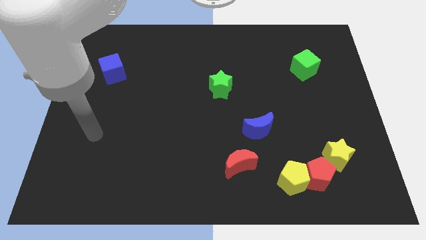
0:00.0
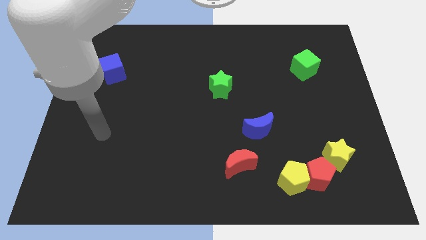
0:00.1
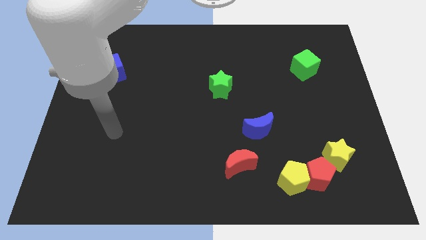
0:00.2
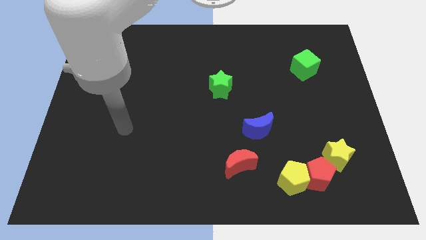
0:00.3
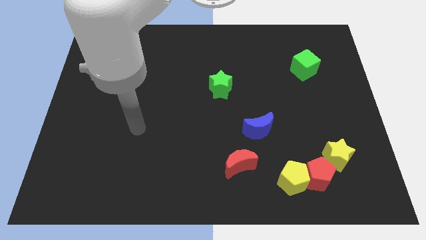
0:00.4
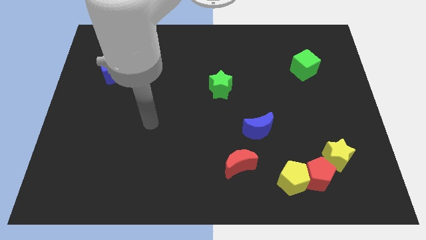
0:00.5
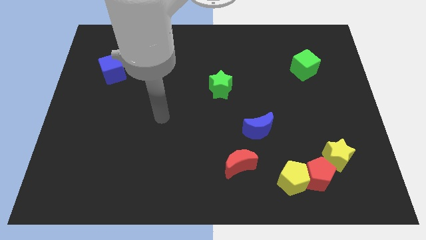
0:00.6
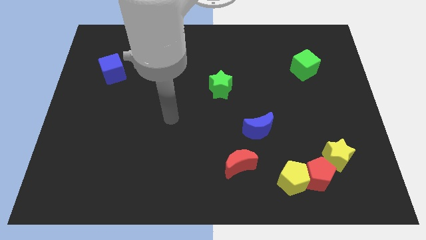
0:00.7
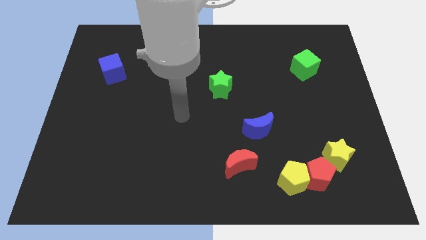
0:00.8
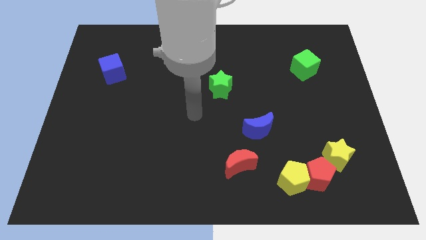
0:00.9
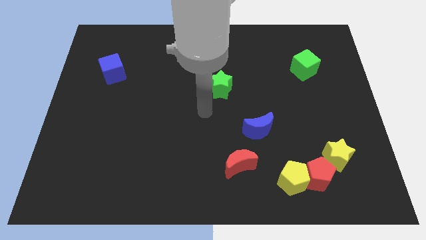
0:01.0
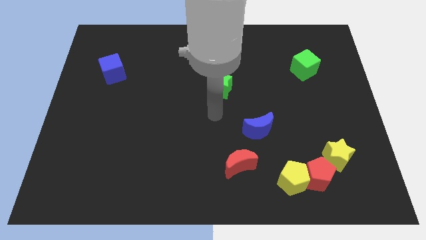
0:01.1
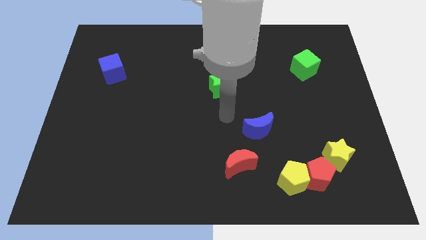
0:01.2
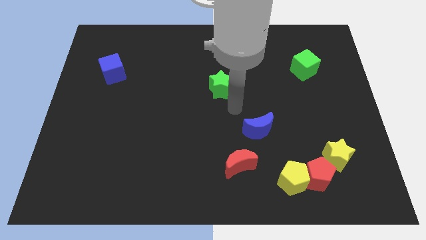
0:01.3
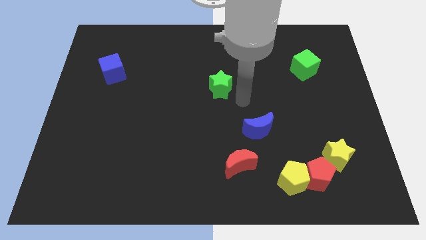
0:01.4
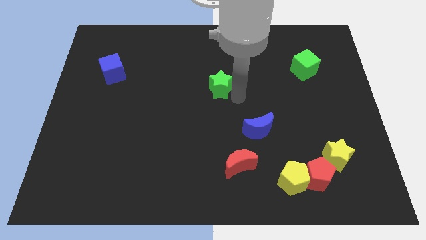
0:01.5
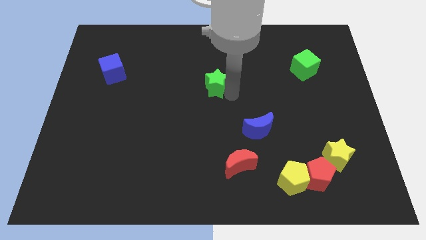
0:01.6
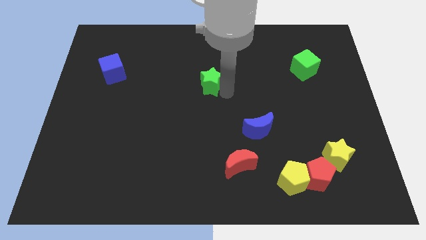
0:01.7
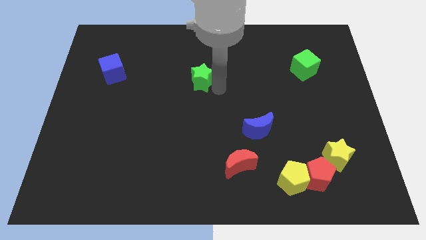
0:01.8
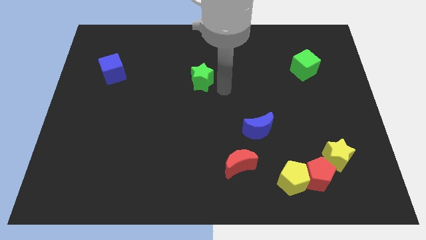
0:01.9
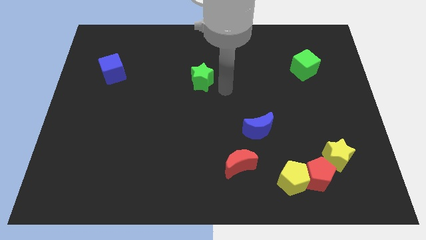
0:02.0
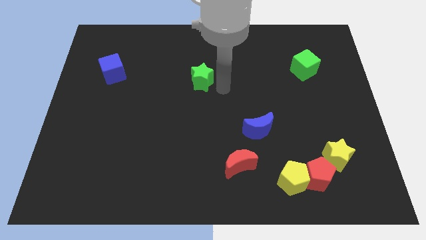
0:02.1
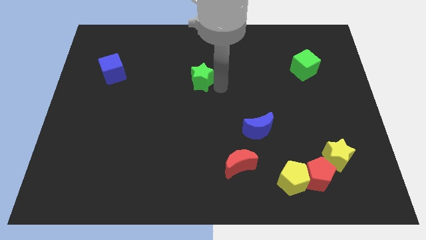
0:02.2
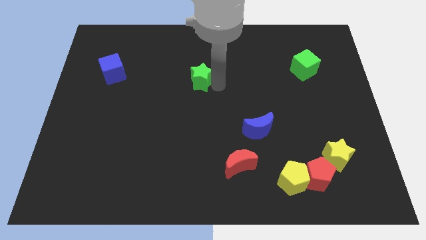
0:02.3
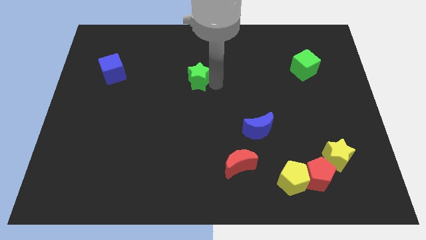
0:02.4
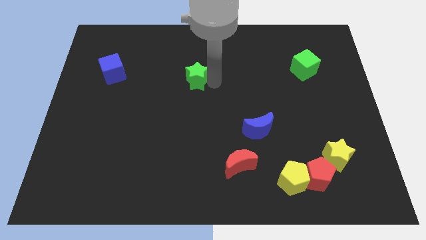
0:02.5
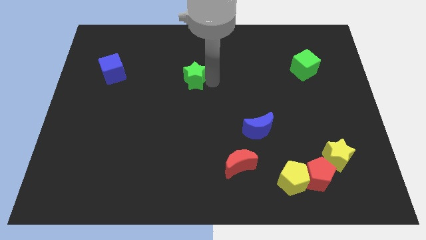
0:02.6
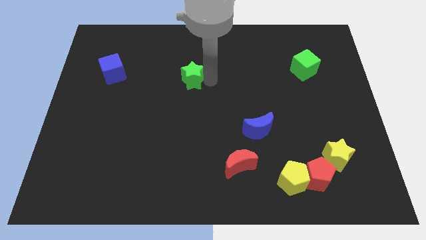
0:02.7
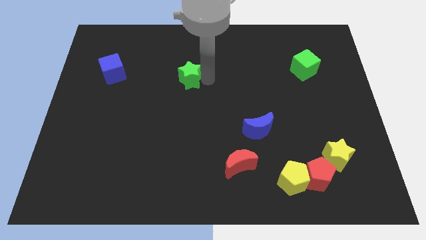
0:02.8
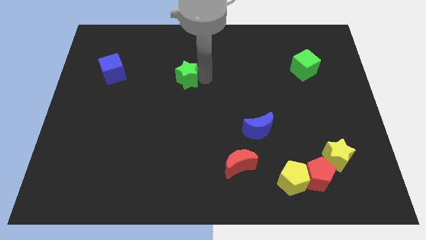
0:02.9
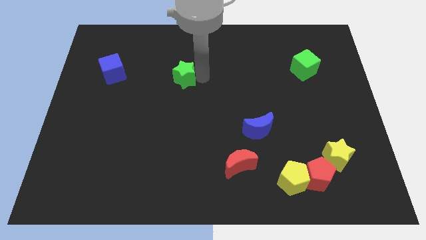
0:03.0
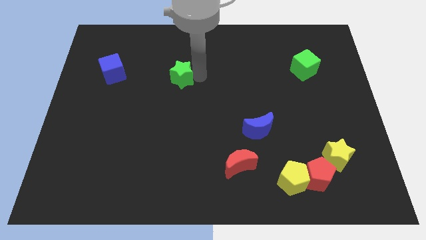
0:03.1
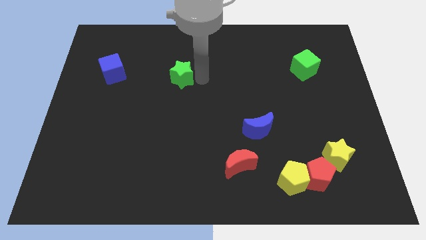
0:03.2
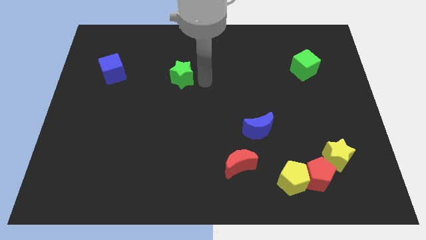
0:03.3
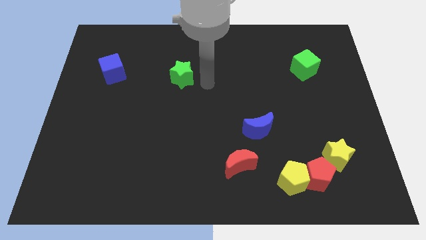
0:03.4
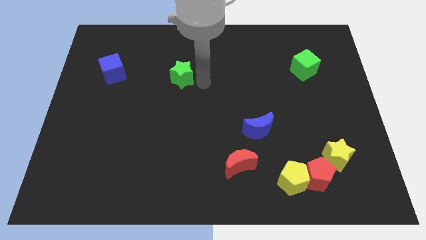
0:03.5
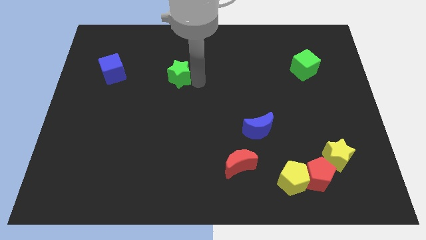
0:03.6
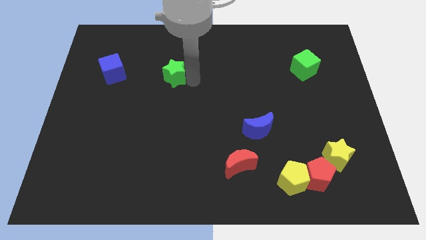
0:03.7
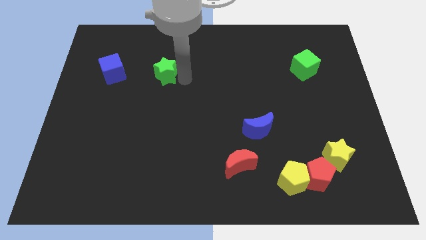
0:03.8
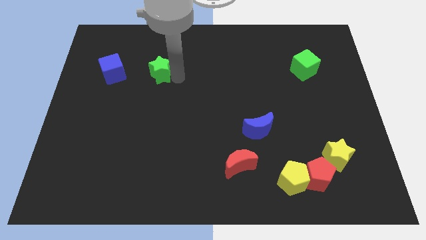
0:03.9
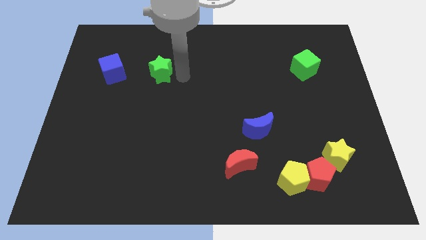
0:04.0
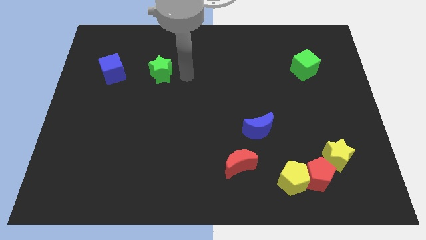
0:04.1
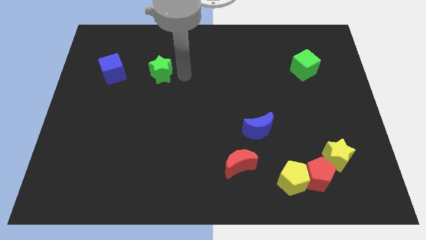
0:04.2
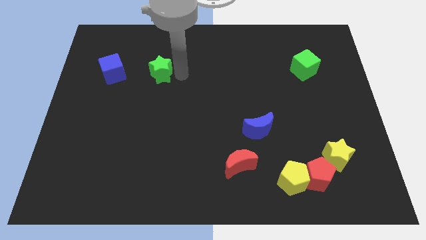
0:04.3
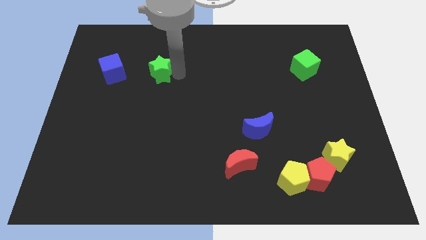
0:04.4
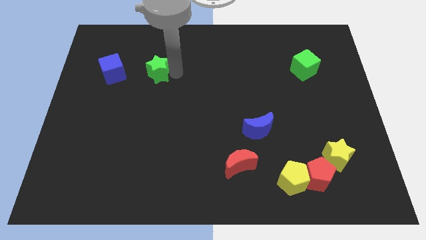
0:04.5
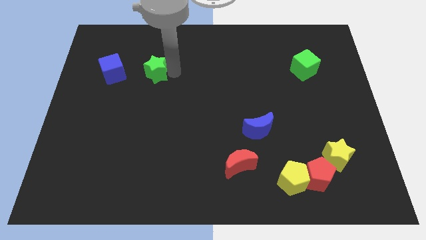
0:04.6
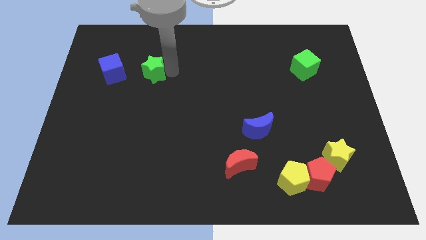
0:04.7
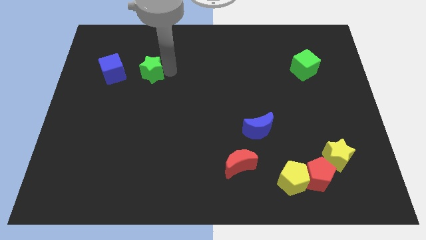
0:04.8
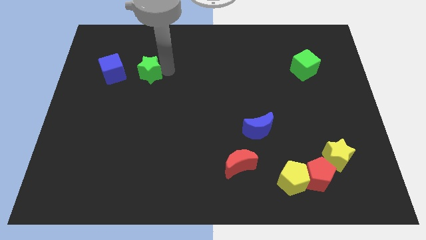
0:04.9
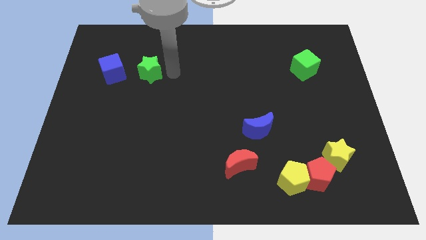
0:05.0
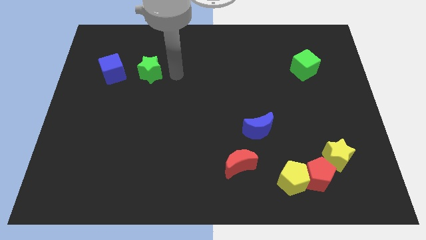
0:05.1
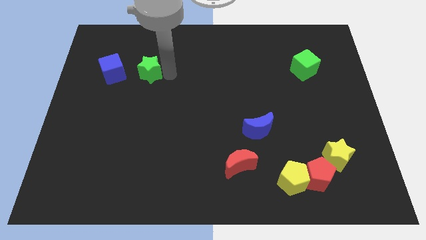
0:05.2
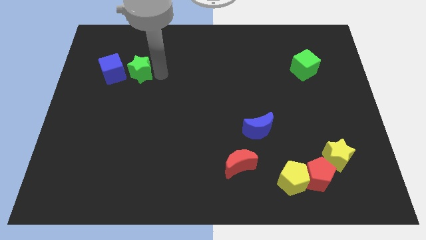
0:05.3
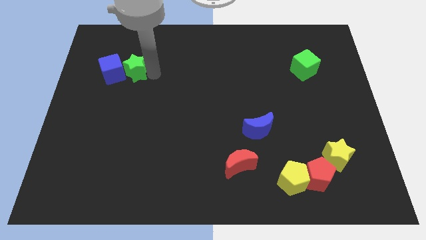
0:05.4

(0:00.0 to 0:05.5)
move the green star next to the blue cube
